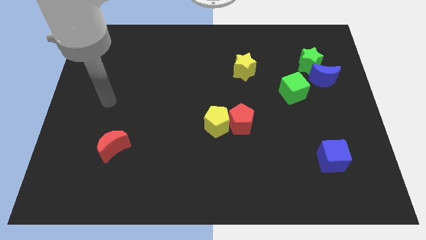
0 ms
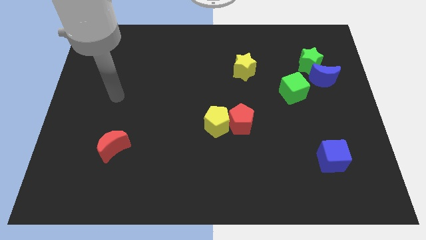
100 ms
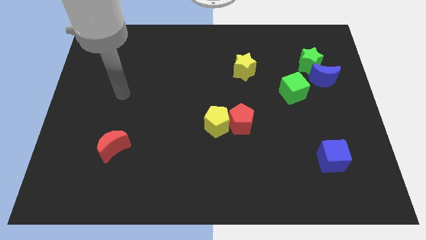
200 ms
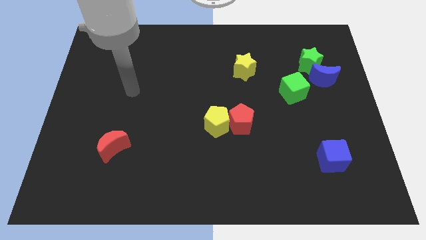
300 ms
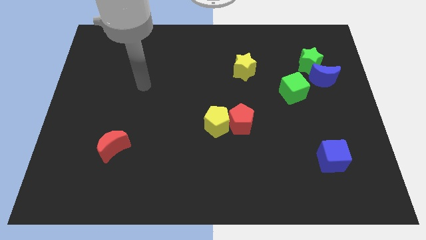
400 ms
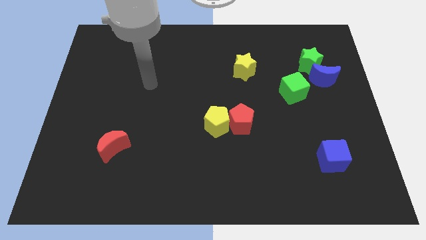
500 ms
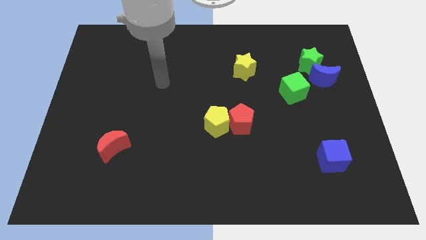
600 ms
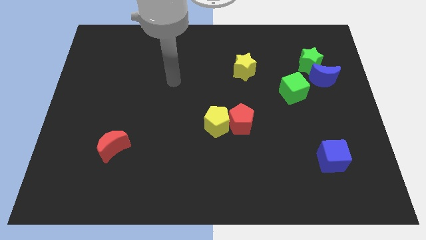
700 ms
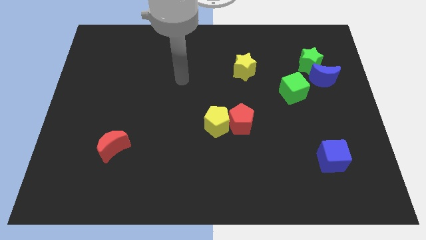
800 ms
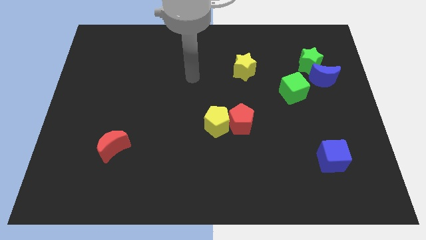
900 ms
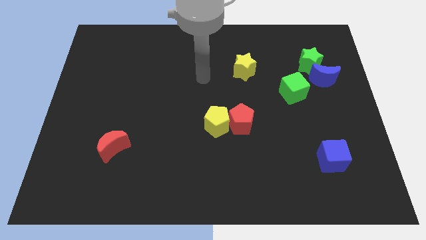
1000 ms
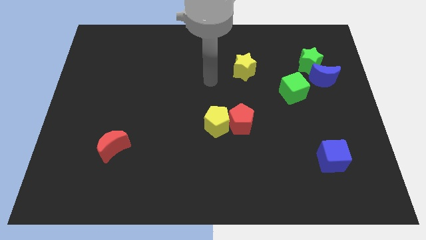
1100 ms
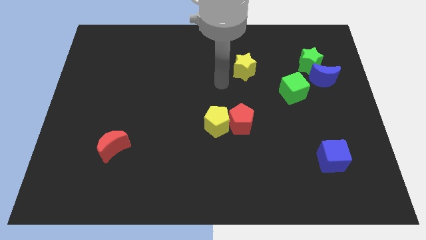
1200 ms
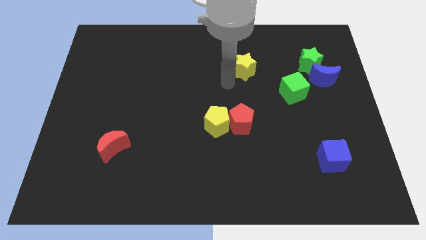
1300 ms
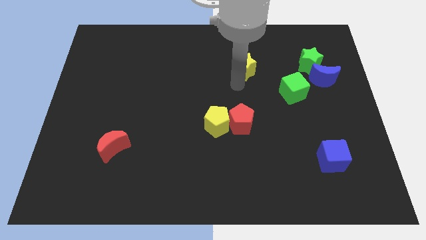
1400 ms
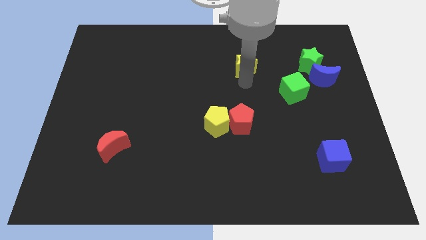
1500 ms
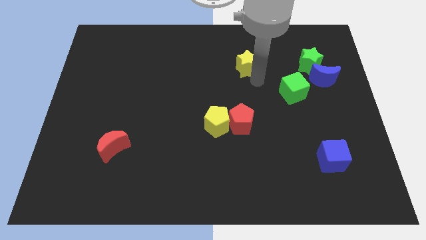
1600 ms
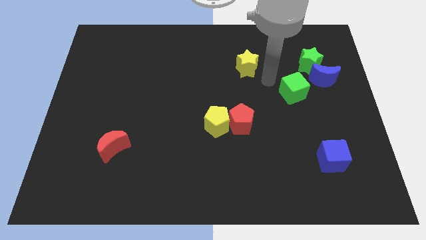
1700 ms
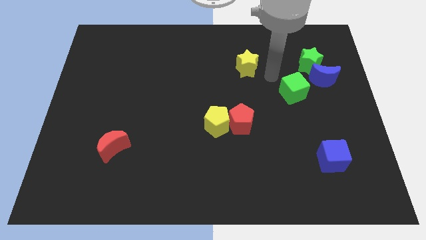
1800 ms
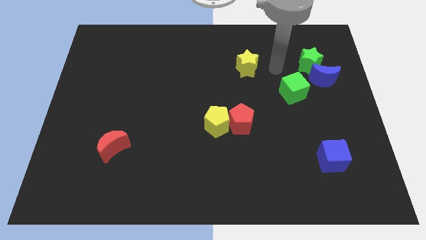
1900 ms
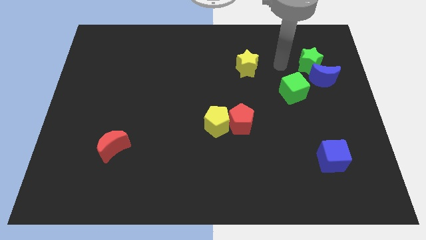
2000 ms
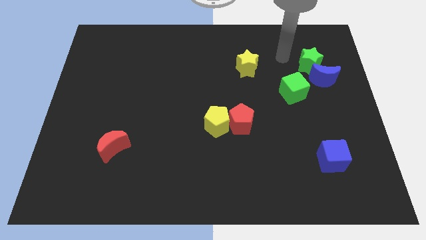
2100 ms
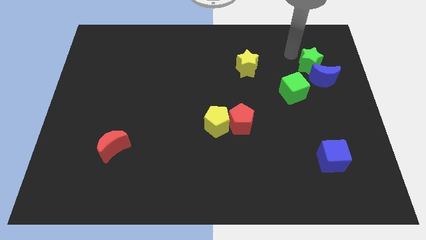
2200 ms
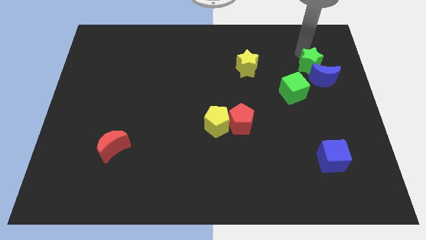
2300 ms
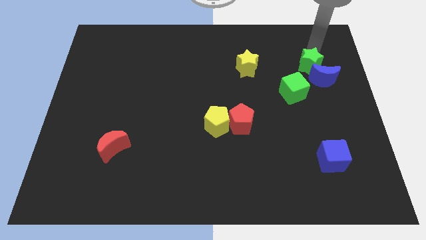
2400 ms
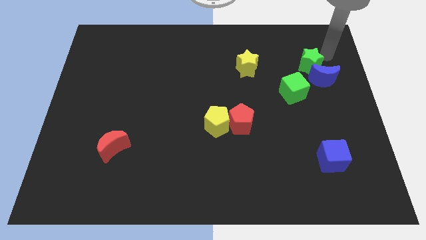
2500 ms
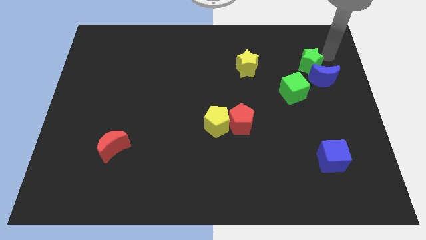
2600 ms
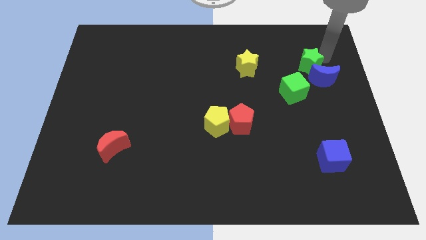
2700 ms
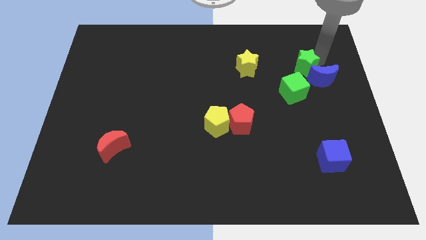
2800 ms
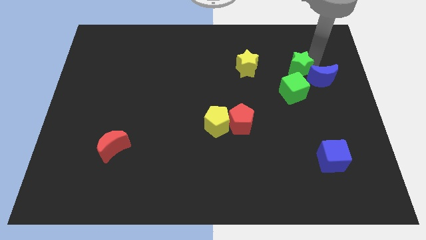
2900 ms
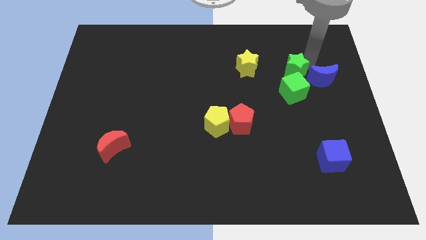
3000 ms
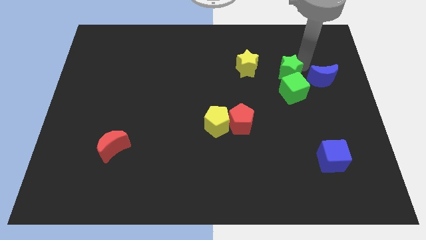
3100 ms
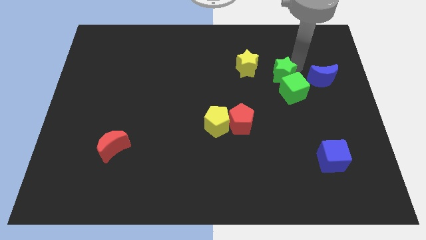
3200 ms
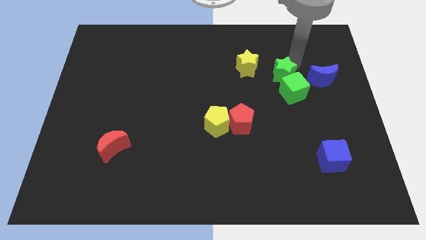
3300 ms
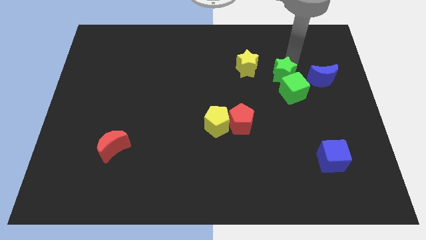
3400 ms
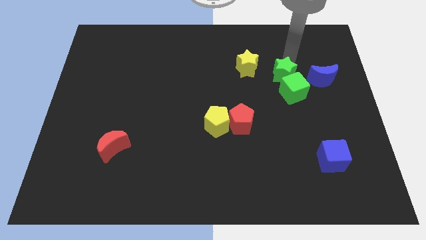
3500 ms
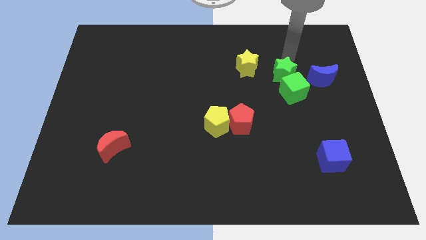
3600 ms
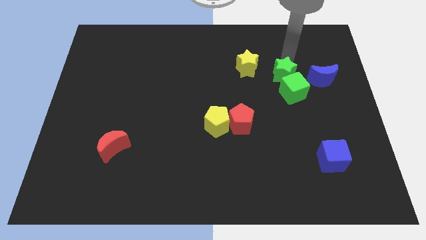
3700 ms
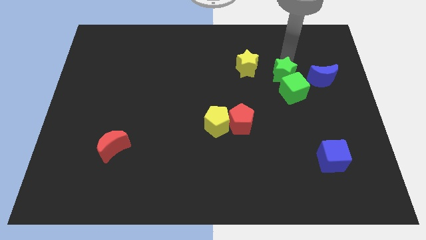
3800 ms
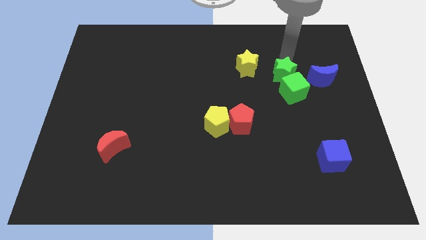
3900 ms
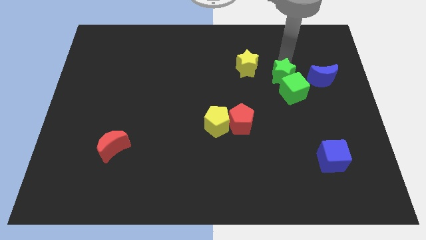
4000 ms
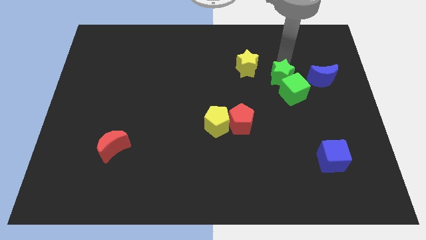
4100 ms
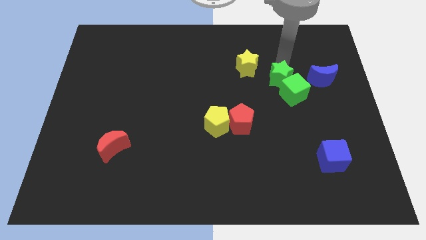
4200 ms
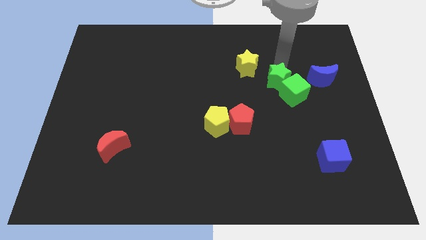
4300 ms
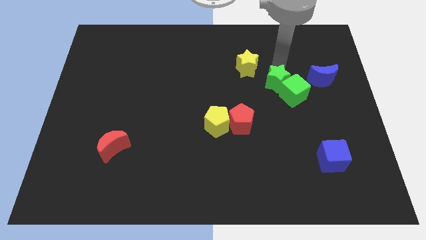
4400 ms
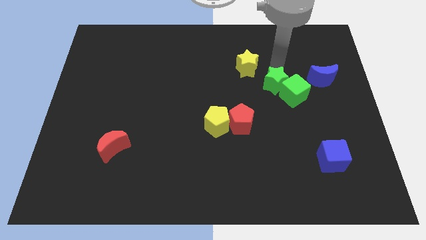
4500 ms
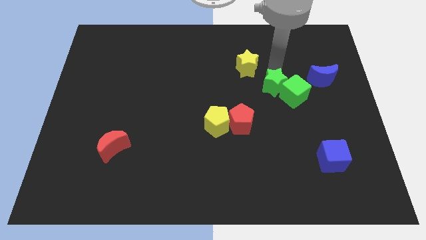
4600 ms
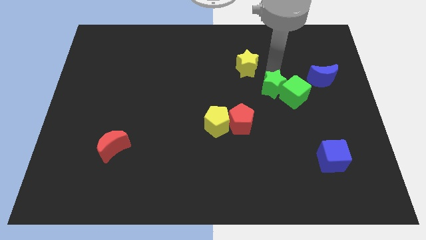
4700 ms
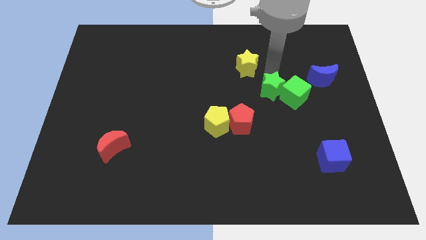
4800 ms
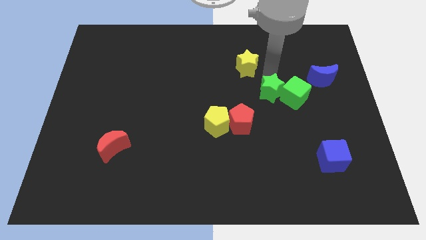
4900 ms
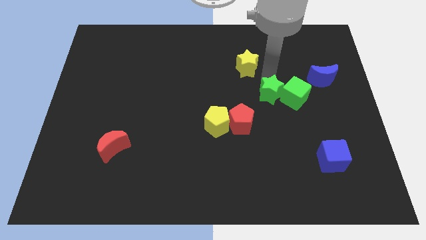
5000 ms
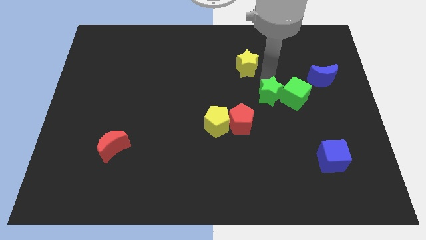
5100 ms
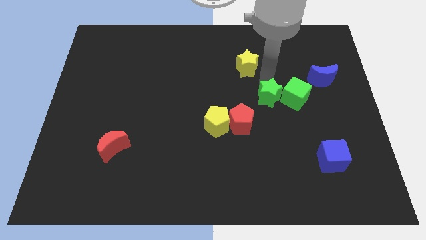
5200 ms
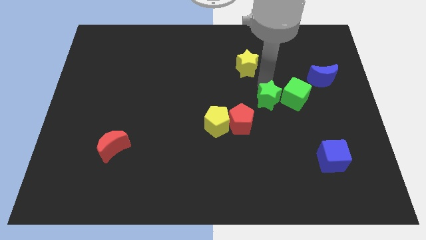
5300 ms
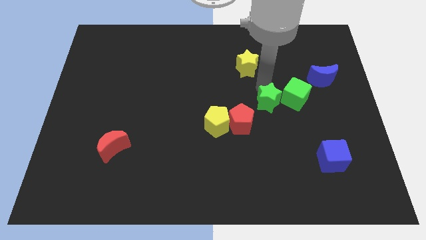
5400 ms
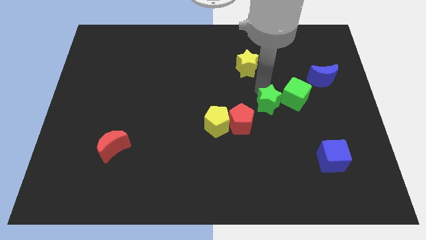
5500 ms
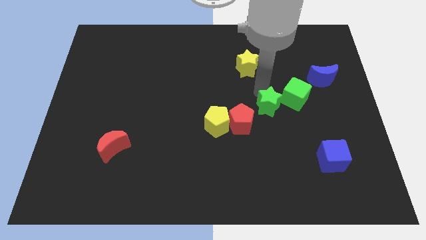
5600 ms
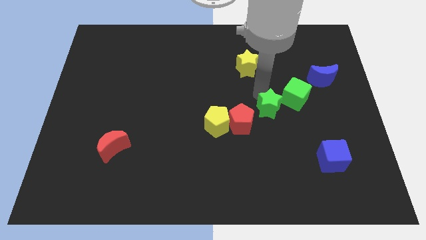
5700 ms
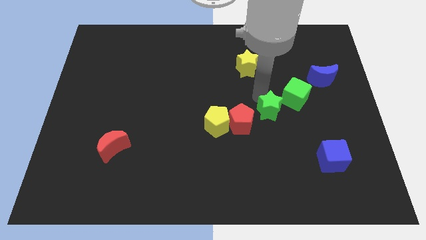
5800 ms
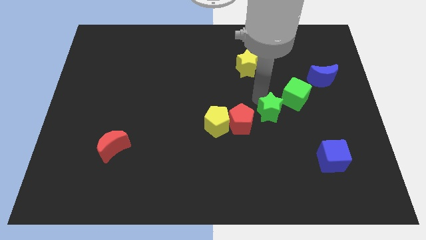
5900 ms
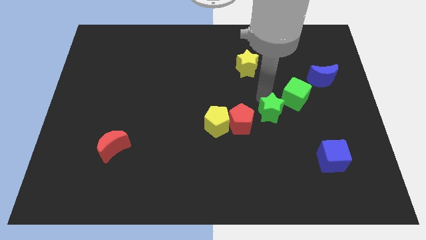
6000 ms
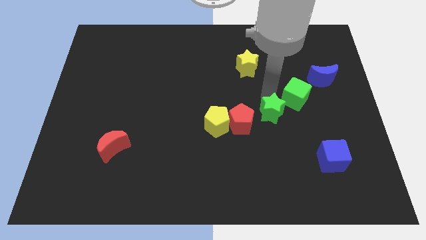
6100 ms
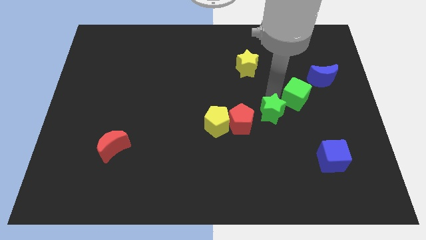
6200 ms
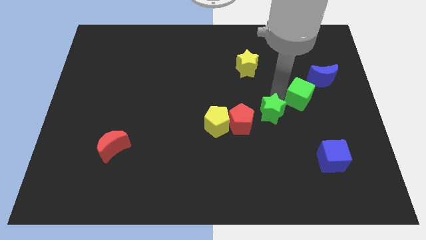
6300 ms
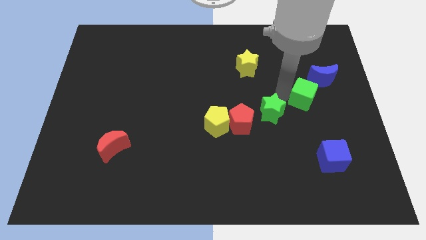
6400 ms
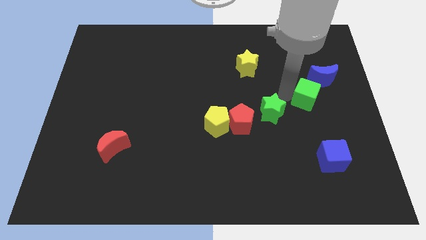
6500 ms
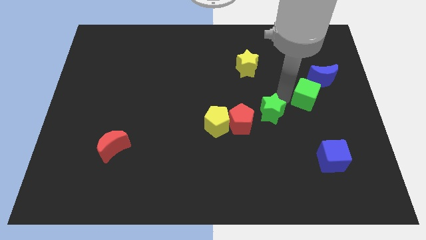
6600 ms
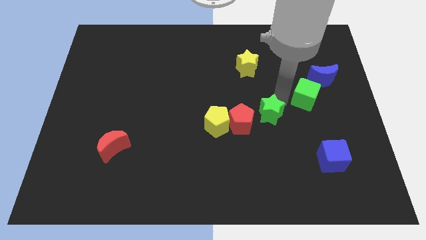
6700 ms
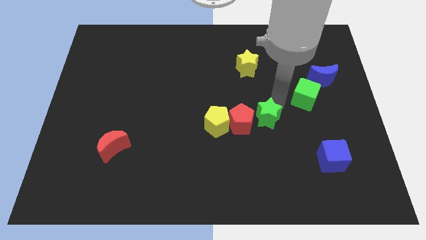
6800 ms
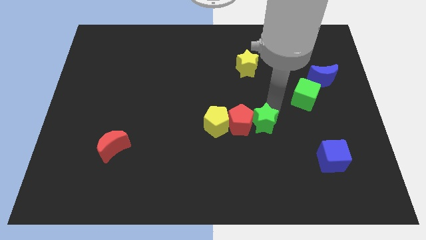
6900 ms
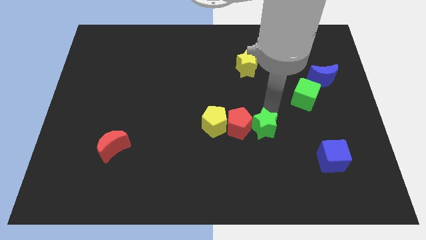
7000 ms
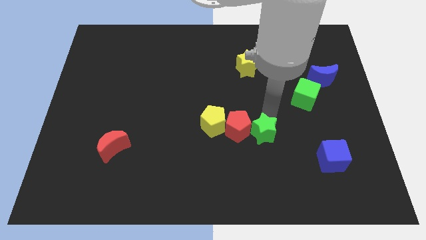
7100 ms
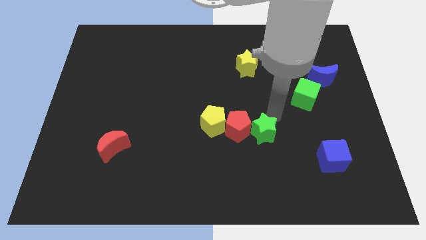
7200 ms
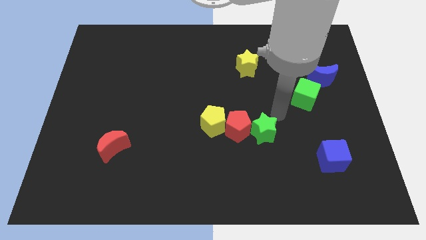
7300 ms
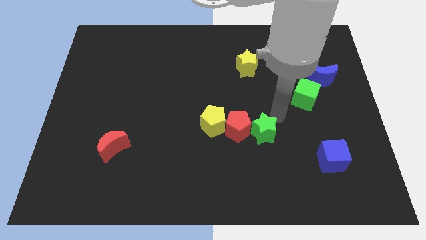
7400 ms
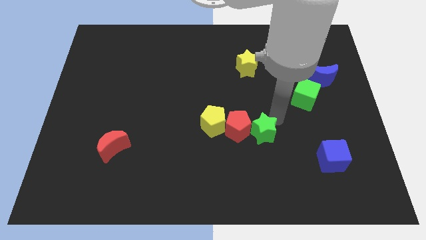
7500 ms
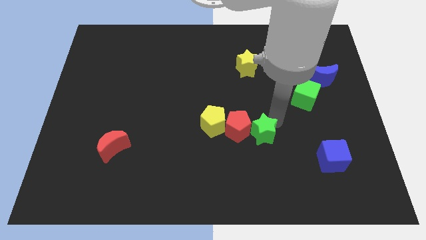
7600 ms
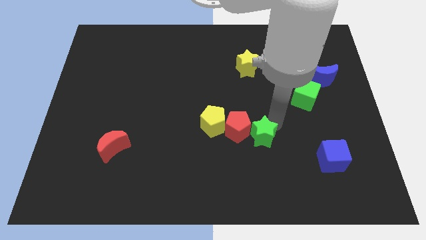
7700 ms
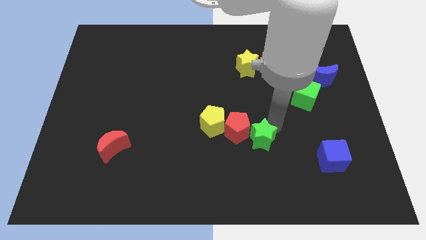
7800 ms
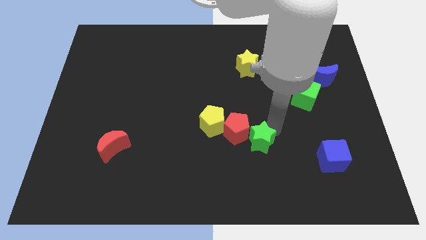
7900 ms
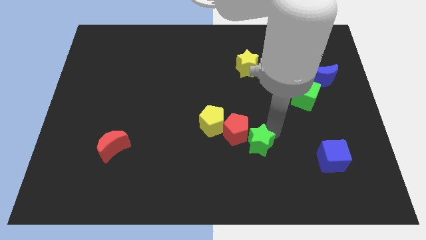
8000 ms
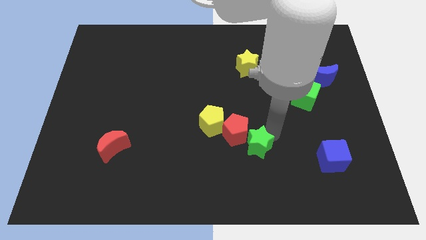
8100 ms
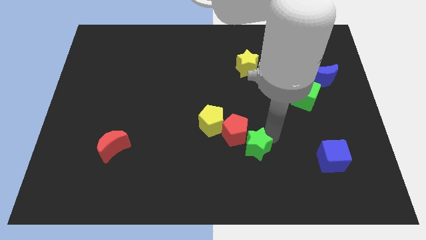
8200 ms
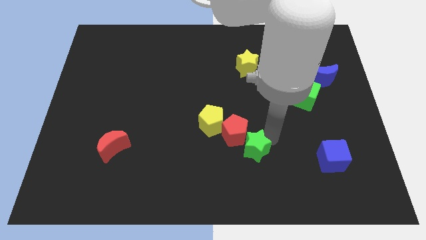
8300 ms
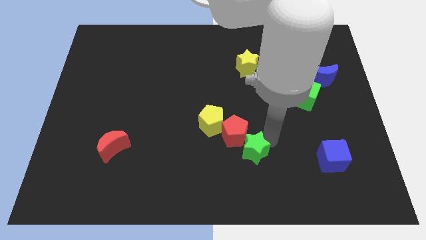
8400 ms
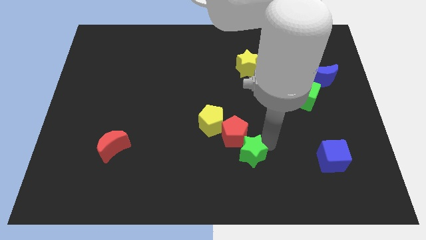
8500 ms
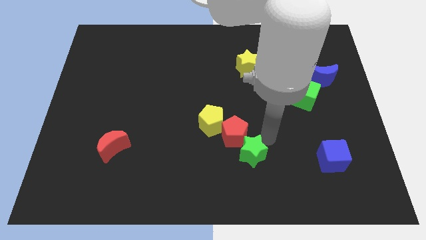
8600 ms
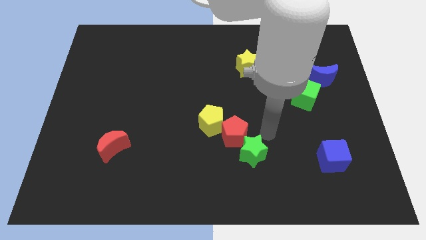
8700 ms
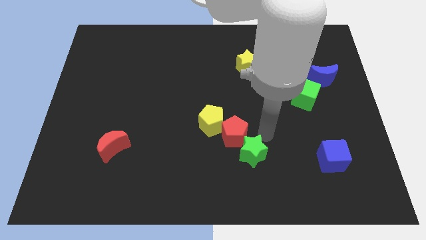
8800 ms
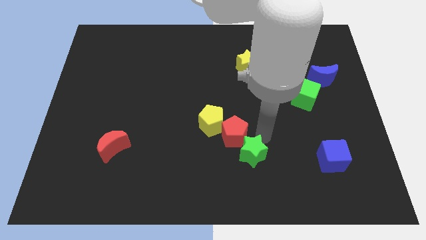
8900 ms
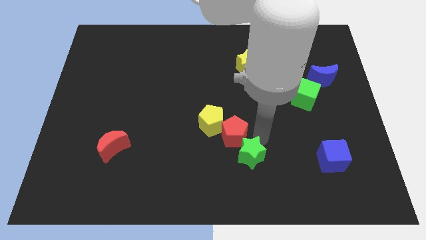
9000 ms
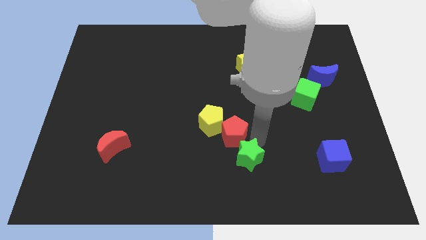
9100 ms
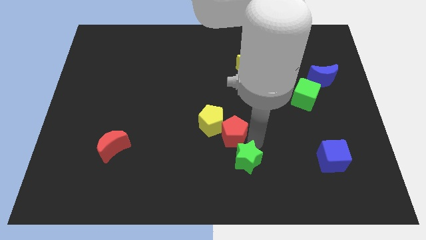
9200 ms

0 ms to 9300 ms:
put the green star to the bottom
